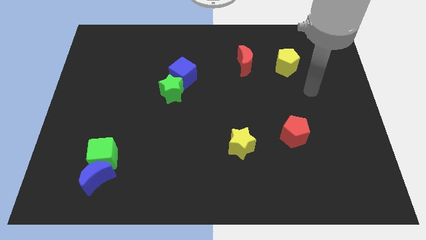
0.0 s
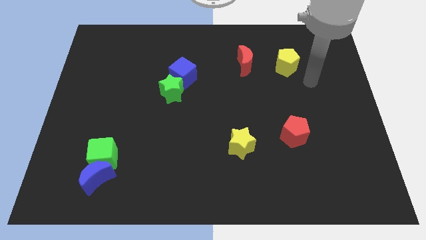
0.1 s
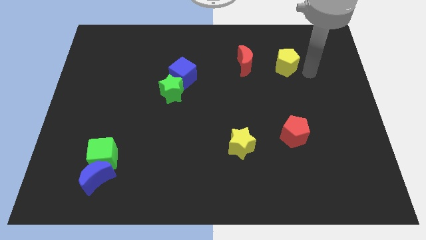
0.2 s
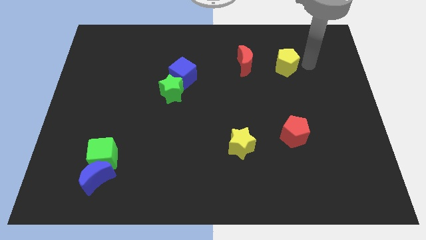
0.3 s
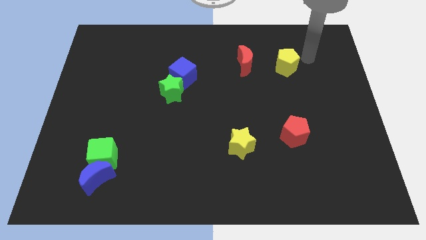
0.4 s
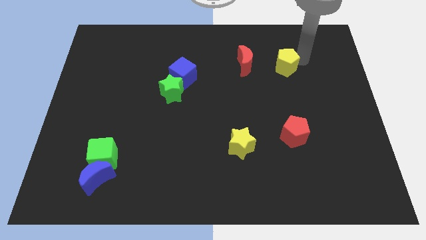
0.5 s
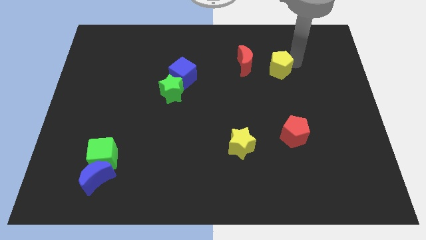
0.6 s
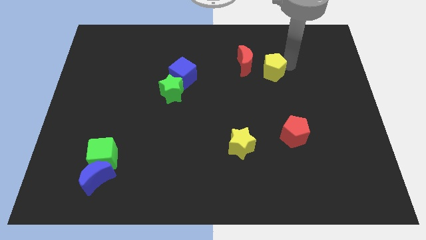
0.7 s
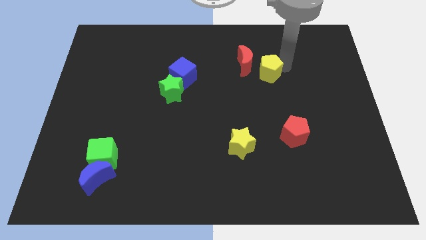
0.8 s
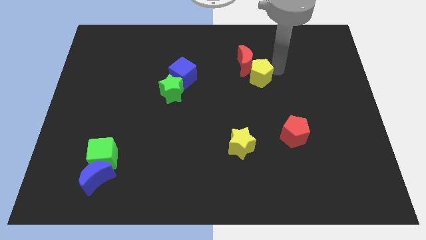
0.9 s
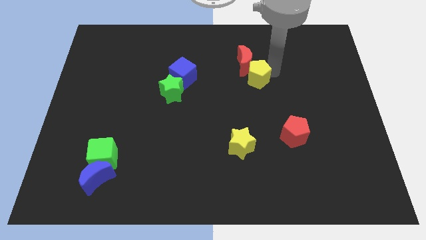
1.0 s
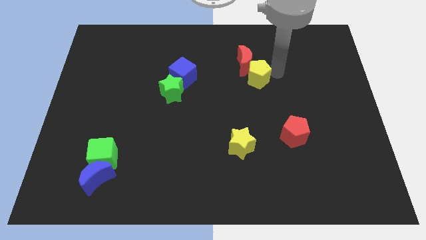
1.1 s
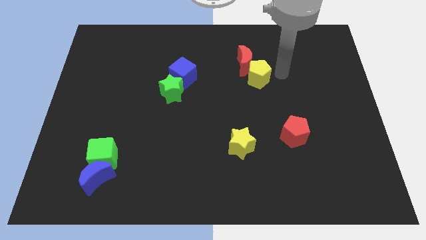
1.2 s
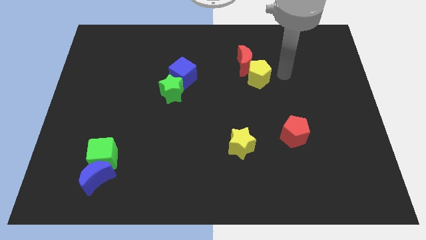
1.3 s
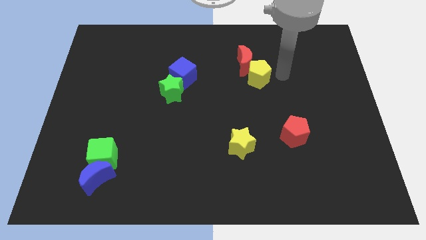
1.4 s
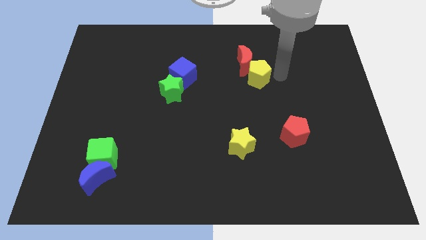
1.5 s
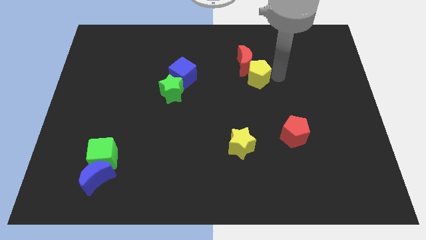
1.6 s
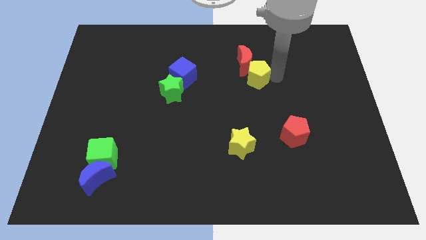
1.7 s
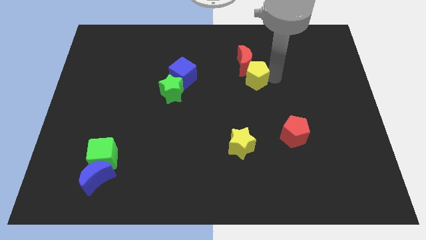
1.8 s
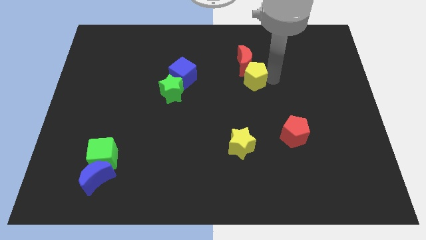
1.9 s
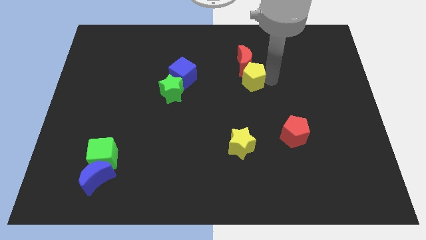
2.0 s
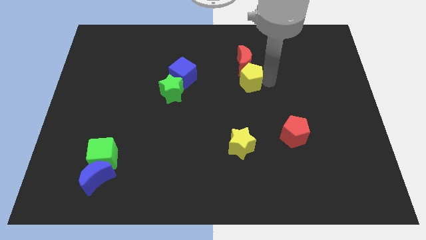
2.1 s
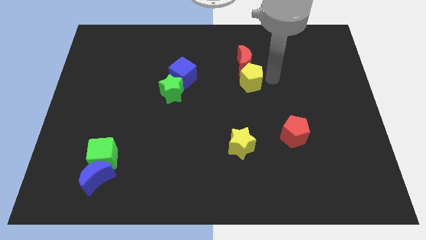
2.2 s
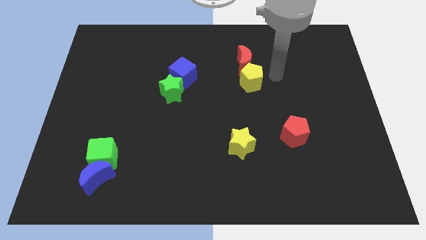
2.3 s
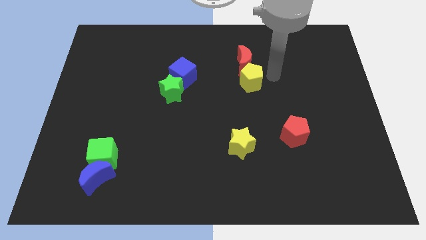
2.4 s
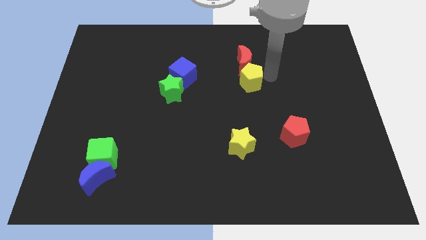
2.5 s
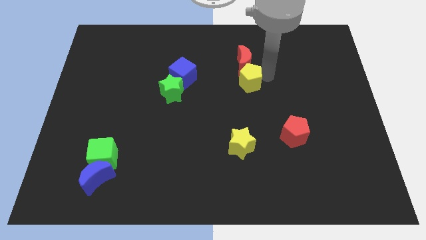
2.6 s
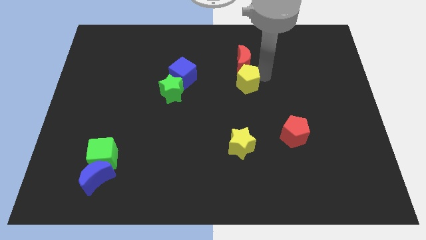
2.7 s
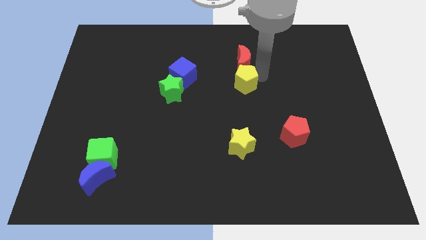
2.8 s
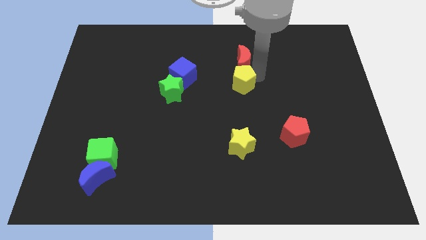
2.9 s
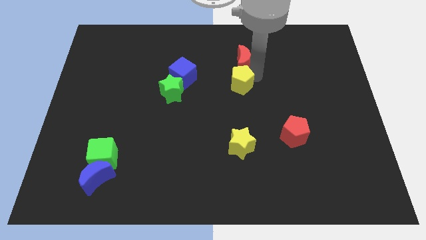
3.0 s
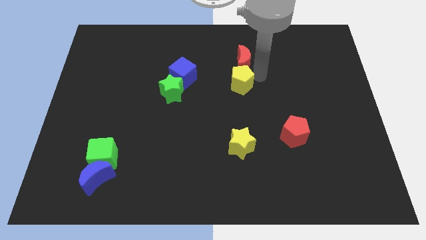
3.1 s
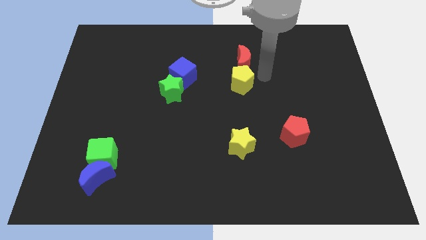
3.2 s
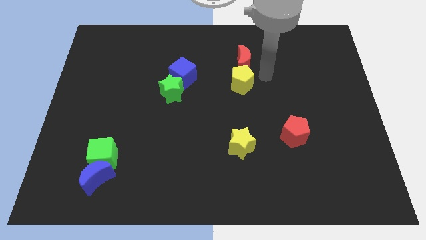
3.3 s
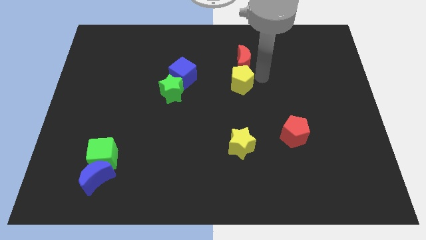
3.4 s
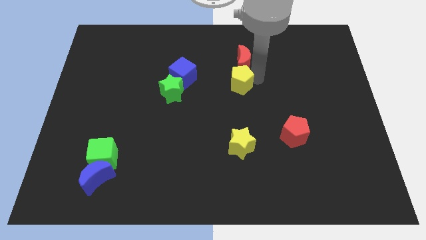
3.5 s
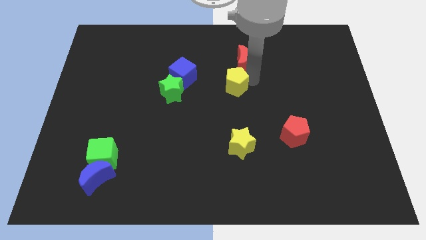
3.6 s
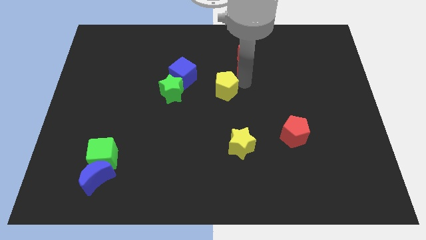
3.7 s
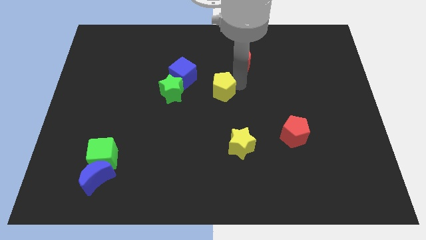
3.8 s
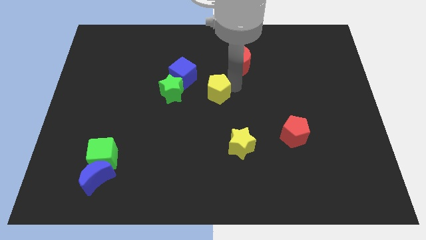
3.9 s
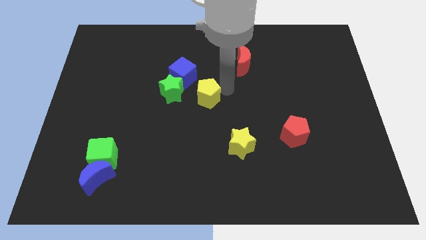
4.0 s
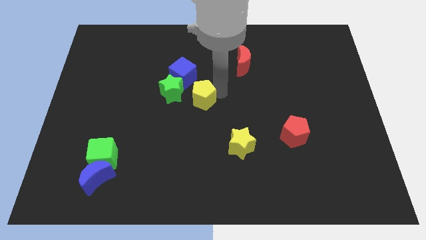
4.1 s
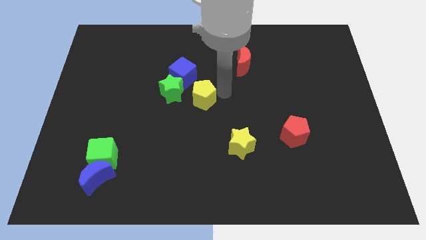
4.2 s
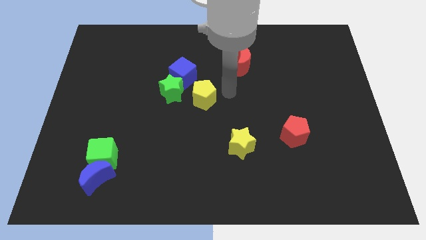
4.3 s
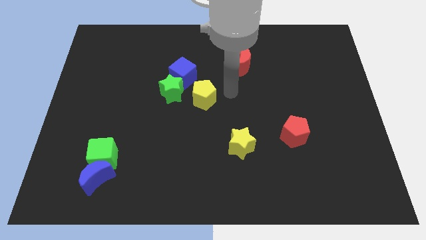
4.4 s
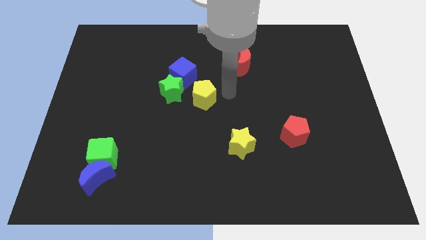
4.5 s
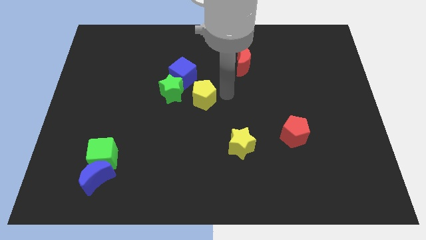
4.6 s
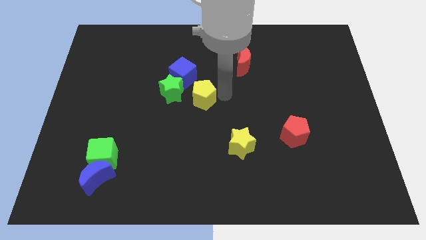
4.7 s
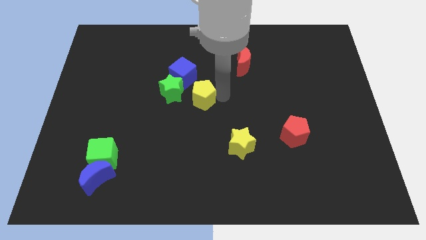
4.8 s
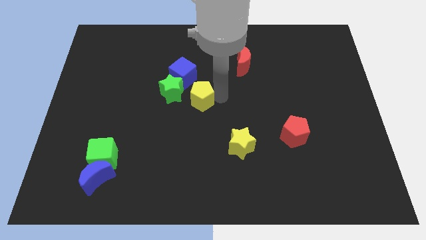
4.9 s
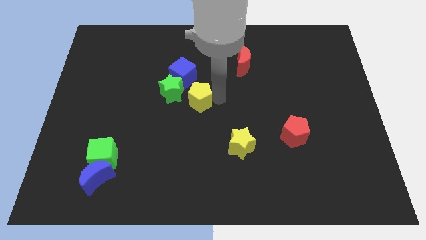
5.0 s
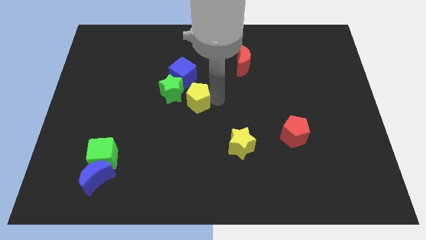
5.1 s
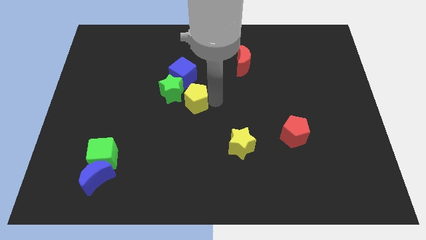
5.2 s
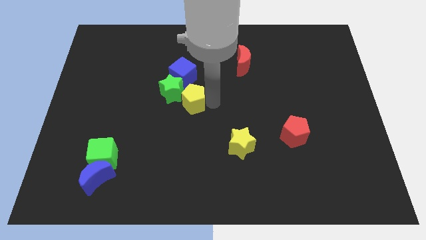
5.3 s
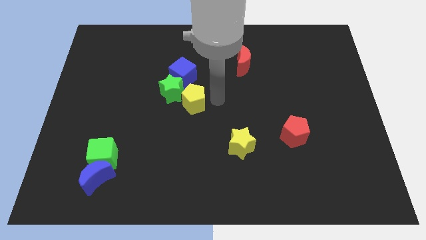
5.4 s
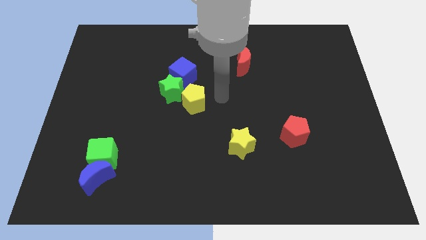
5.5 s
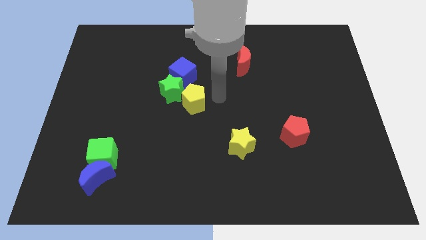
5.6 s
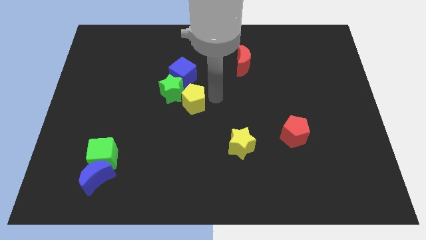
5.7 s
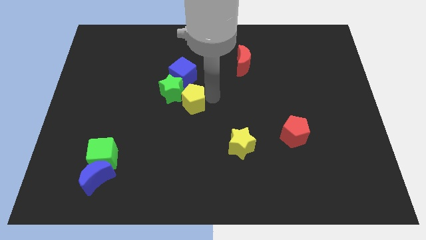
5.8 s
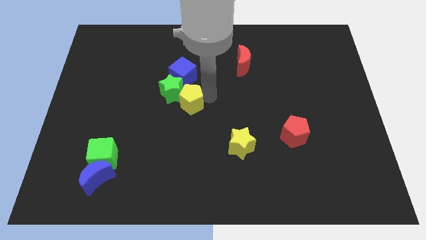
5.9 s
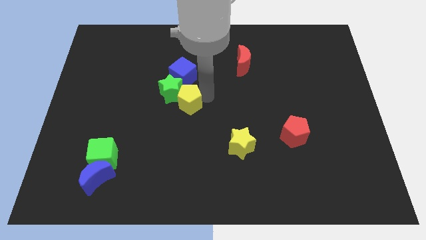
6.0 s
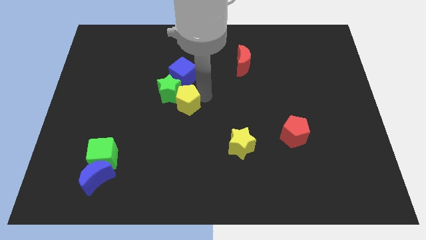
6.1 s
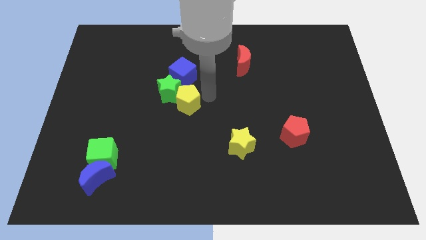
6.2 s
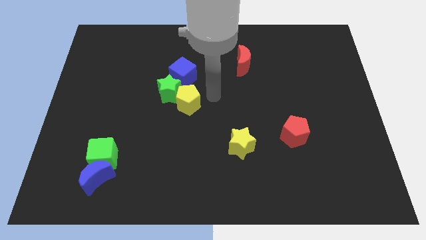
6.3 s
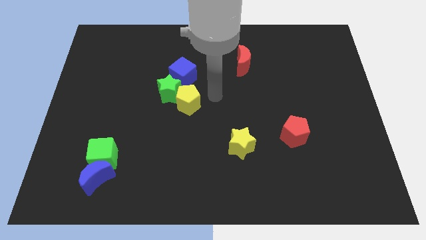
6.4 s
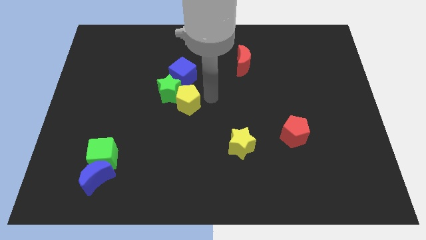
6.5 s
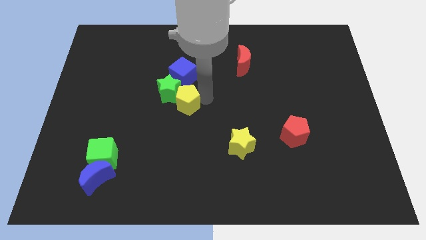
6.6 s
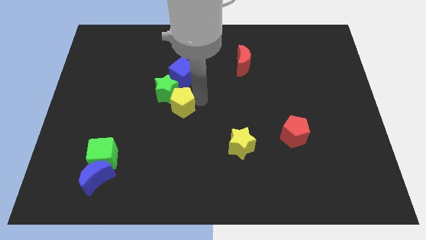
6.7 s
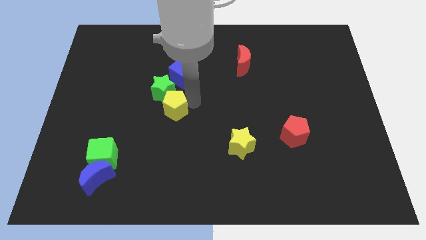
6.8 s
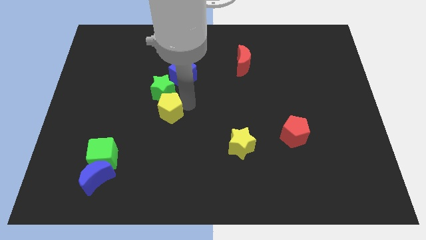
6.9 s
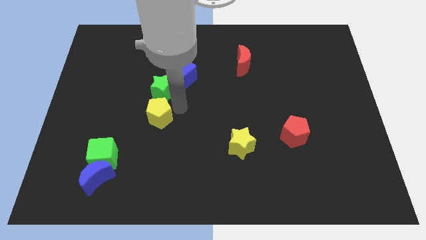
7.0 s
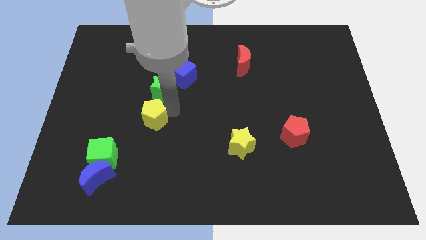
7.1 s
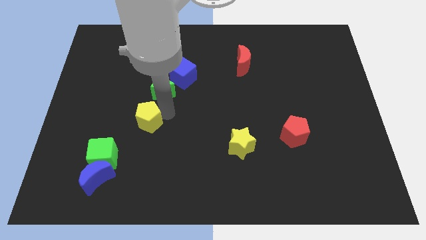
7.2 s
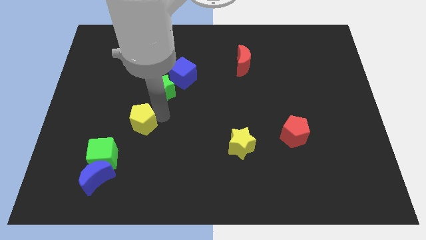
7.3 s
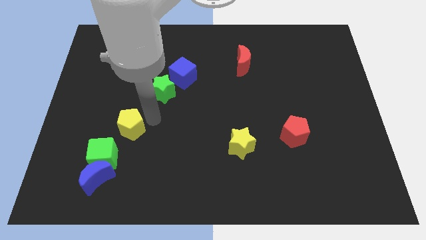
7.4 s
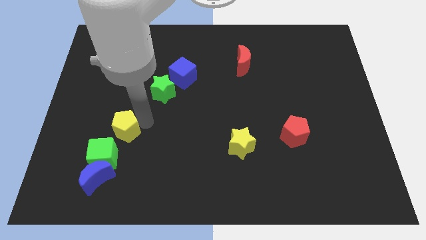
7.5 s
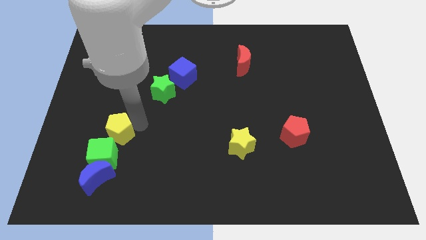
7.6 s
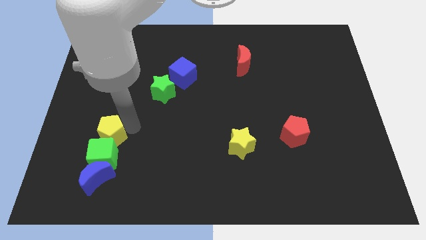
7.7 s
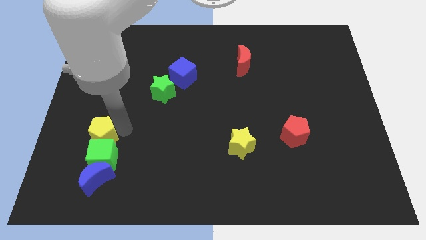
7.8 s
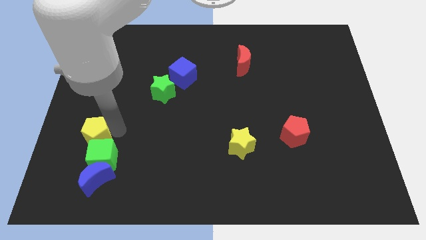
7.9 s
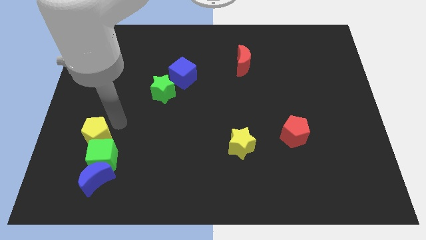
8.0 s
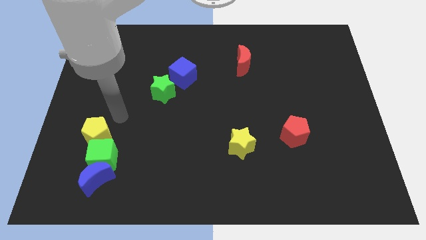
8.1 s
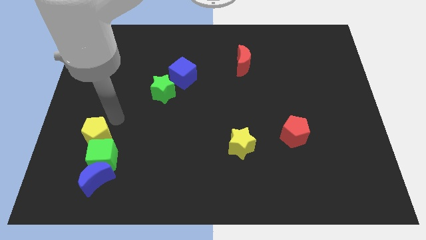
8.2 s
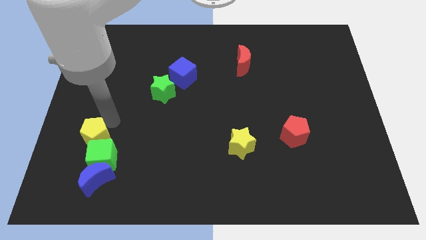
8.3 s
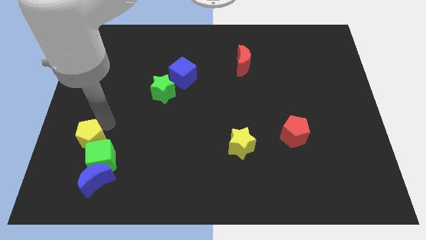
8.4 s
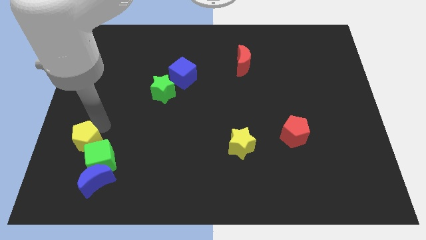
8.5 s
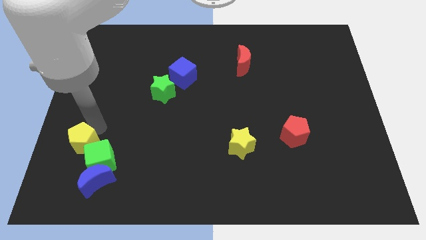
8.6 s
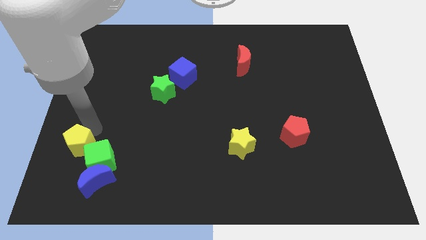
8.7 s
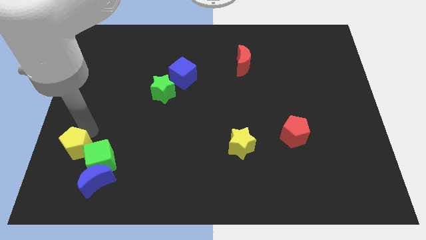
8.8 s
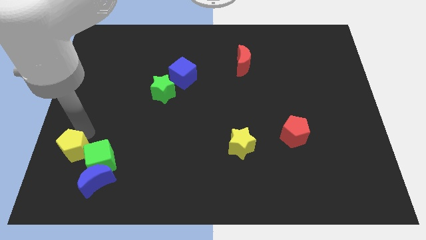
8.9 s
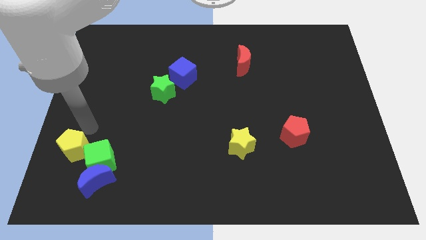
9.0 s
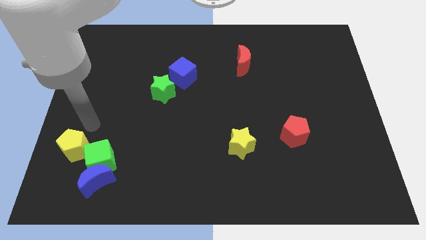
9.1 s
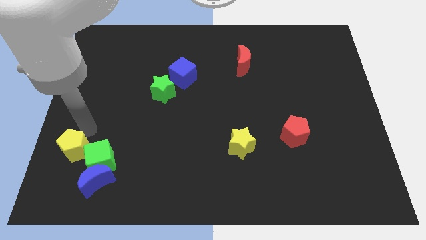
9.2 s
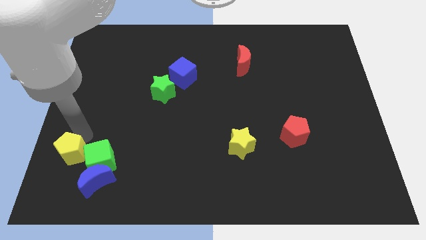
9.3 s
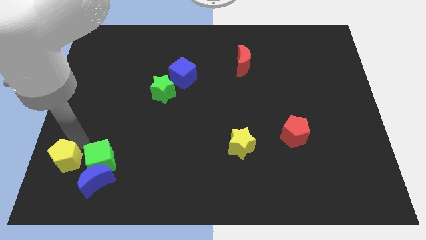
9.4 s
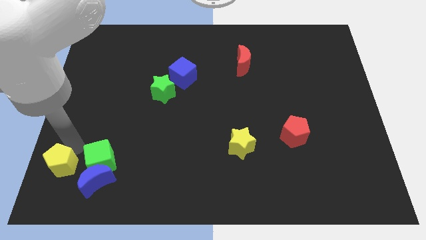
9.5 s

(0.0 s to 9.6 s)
push the yellow pentagon to the bottom left corner
